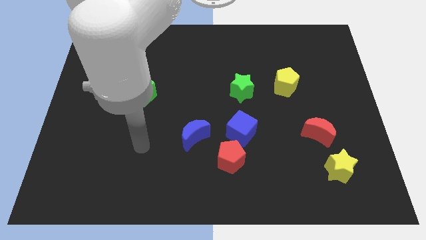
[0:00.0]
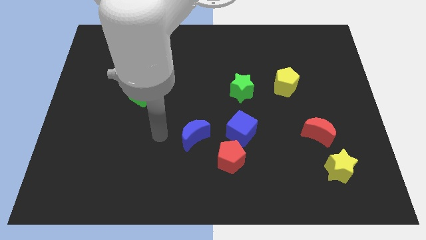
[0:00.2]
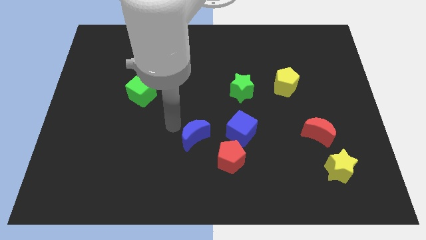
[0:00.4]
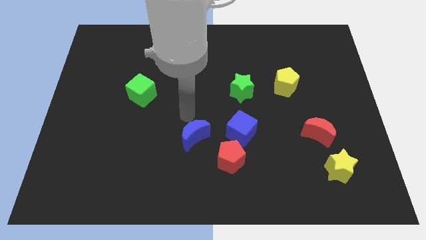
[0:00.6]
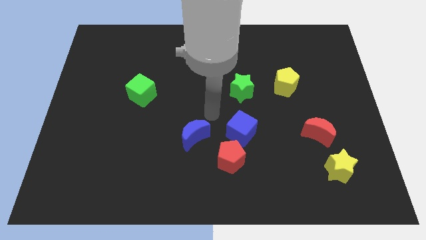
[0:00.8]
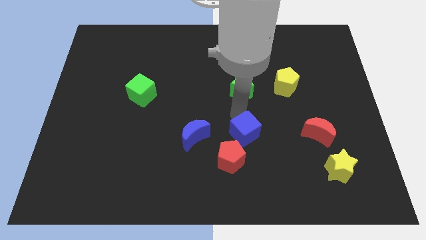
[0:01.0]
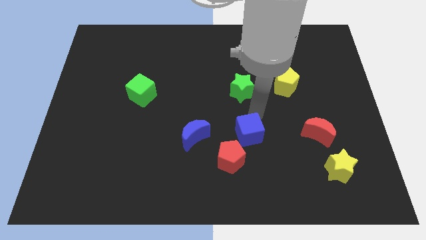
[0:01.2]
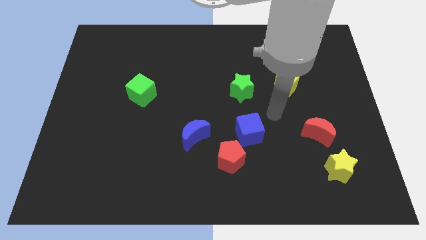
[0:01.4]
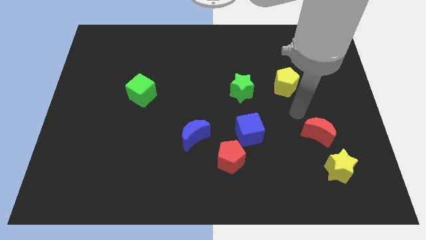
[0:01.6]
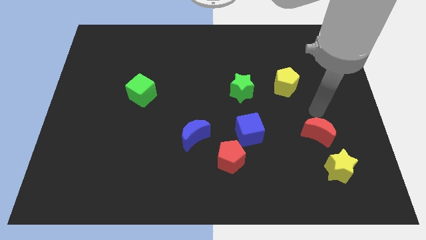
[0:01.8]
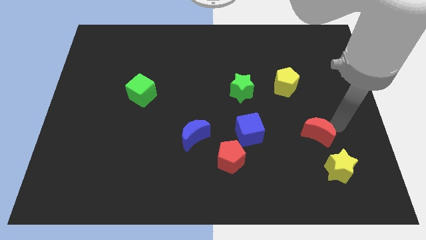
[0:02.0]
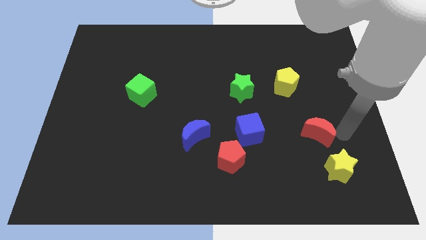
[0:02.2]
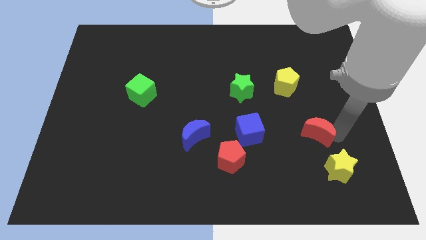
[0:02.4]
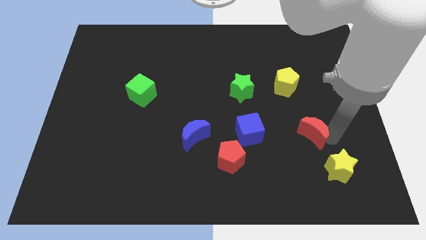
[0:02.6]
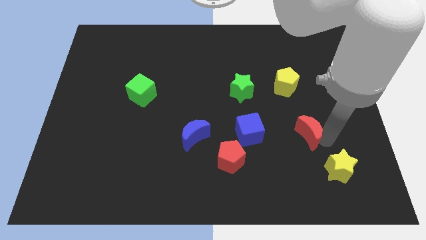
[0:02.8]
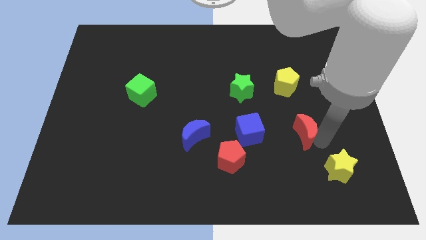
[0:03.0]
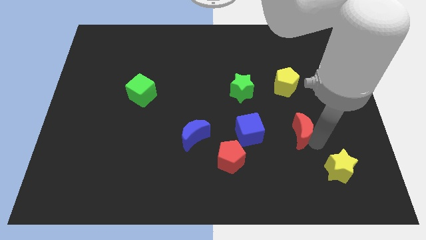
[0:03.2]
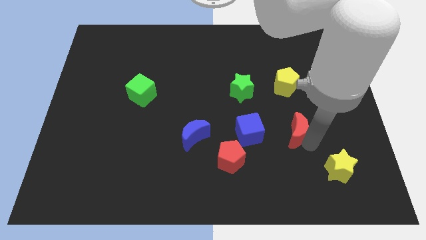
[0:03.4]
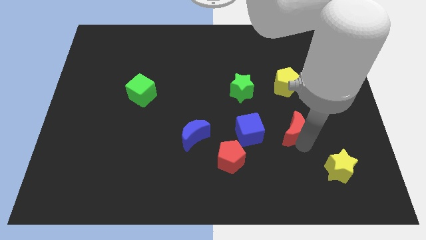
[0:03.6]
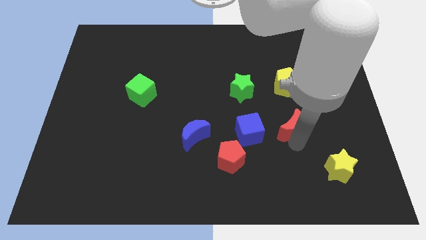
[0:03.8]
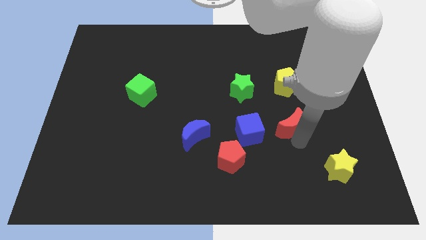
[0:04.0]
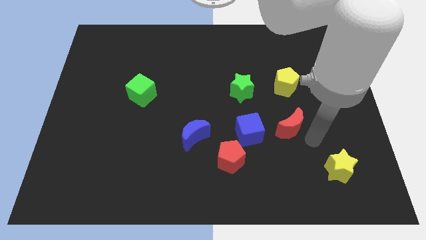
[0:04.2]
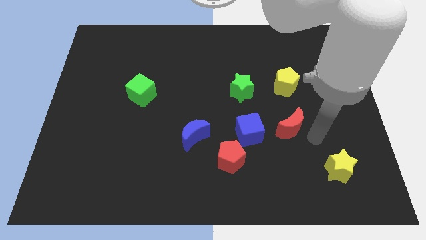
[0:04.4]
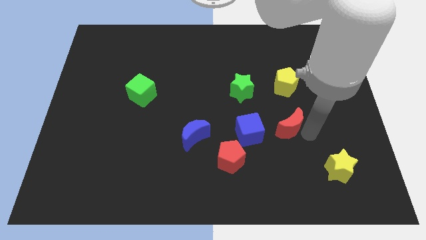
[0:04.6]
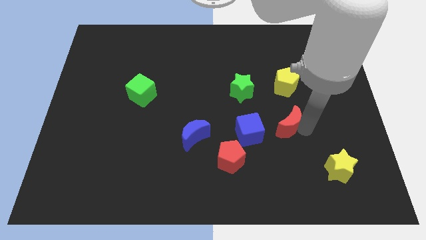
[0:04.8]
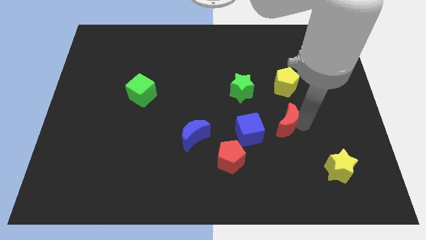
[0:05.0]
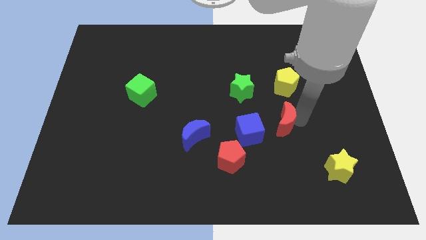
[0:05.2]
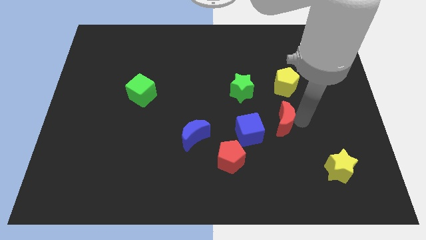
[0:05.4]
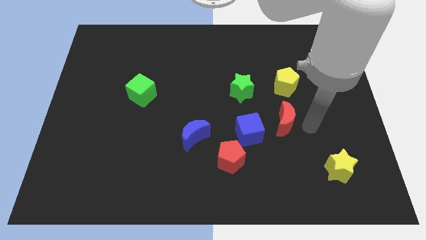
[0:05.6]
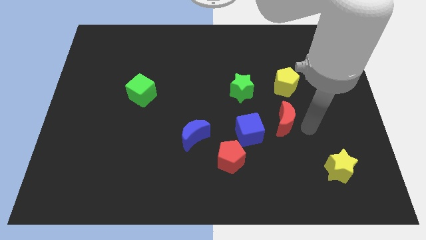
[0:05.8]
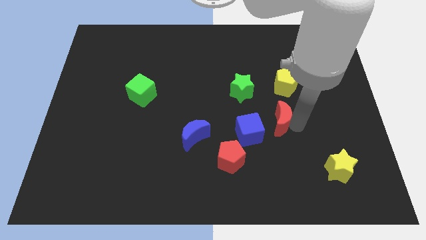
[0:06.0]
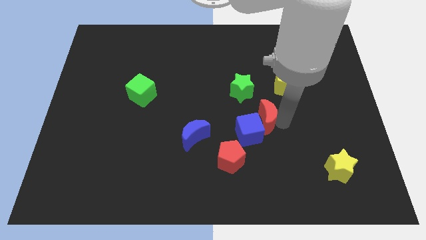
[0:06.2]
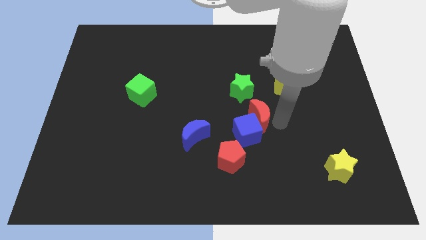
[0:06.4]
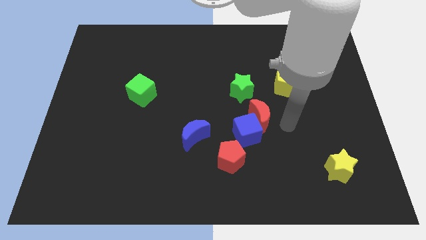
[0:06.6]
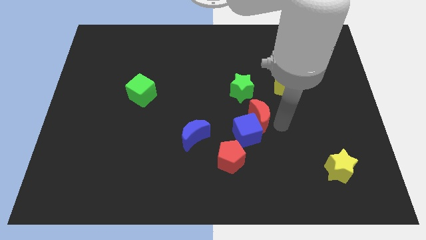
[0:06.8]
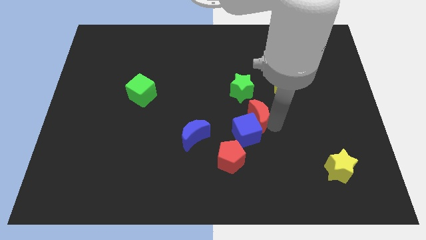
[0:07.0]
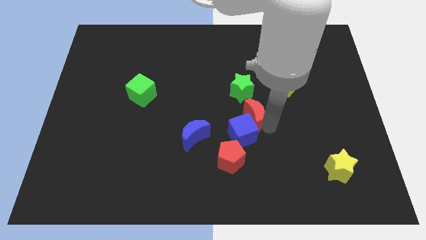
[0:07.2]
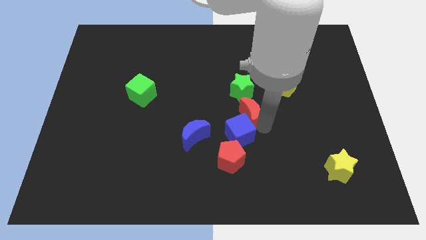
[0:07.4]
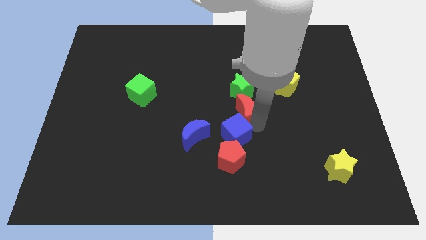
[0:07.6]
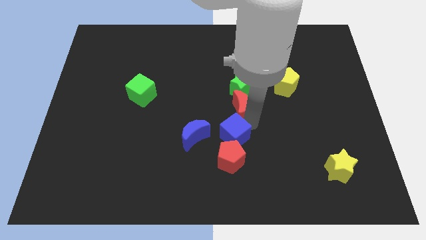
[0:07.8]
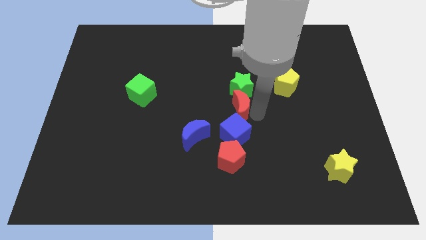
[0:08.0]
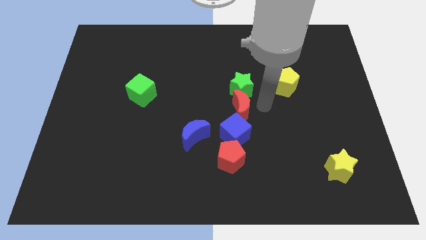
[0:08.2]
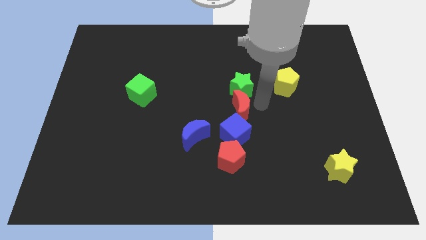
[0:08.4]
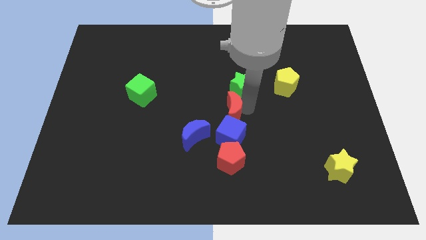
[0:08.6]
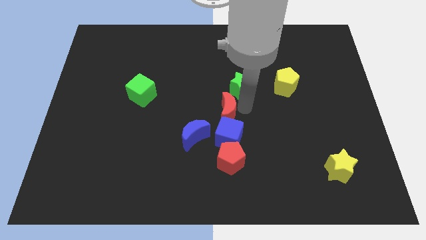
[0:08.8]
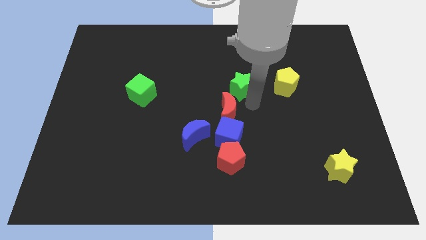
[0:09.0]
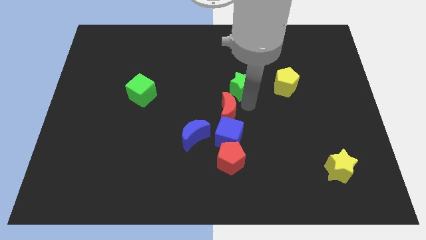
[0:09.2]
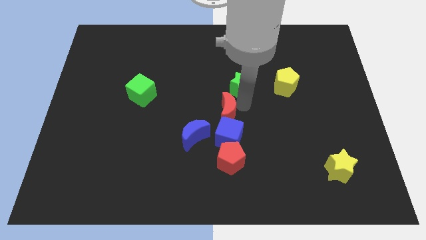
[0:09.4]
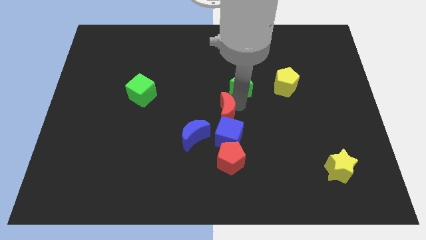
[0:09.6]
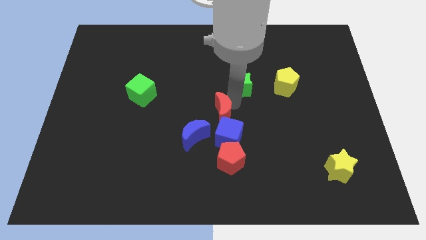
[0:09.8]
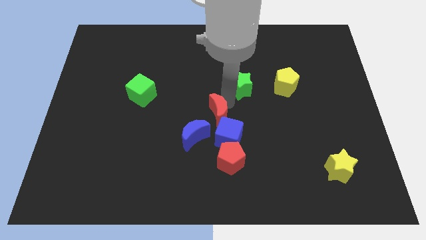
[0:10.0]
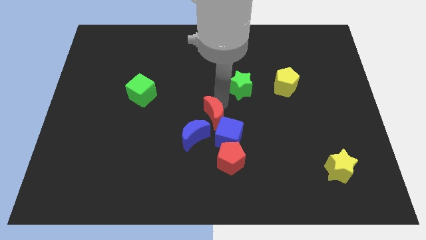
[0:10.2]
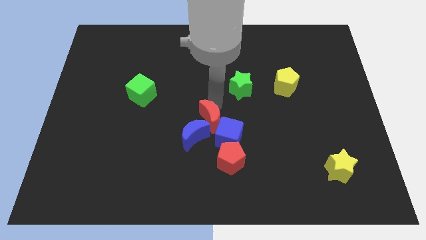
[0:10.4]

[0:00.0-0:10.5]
move the red moon next to the blue moon

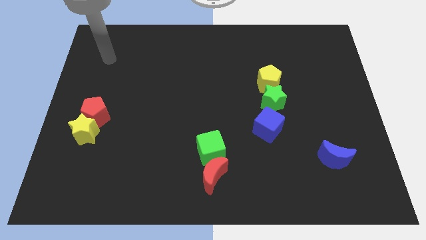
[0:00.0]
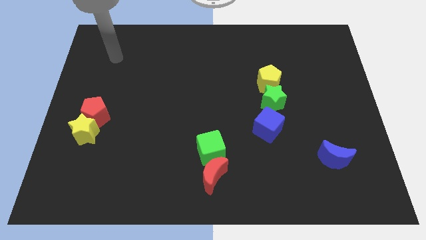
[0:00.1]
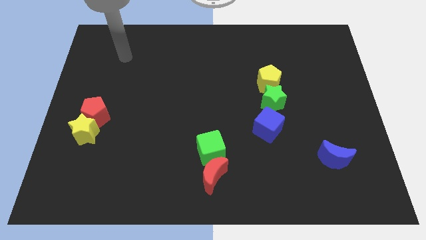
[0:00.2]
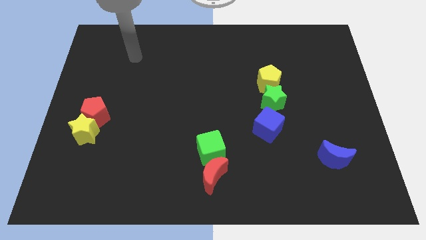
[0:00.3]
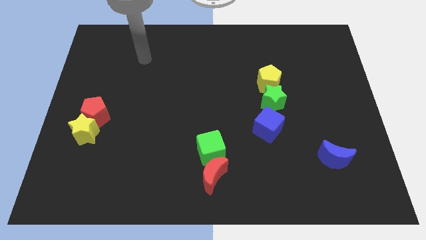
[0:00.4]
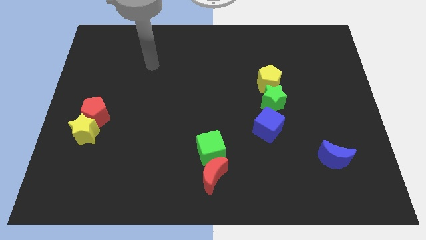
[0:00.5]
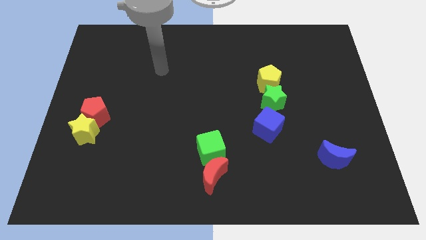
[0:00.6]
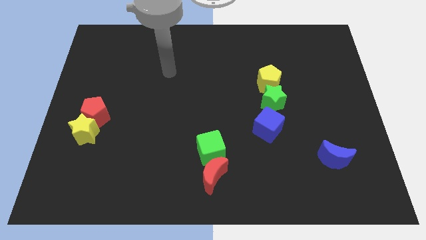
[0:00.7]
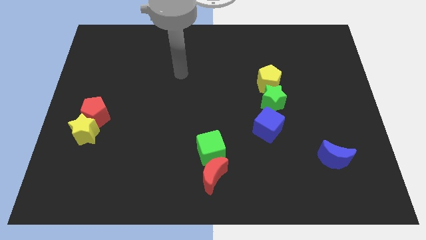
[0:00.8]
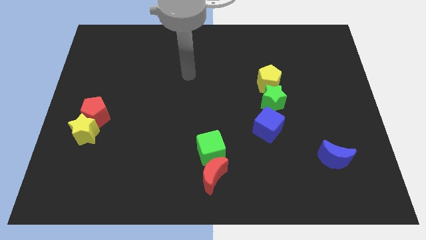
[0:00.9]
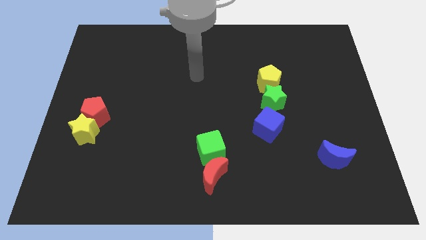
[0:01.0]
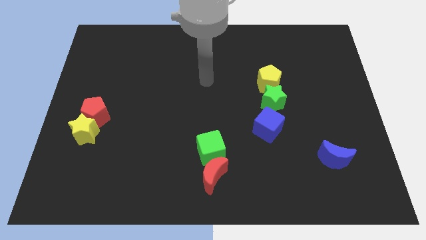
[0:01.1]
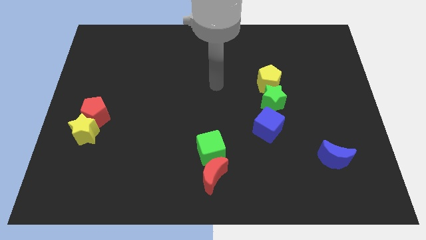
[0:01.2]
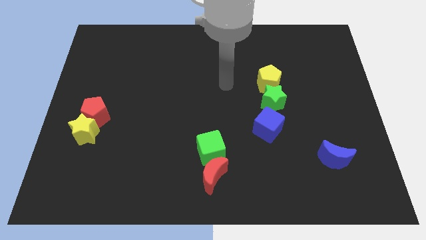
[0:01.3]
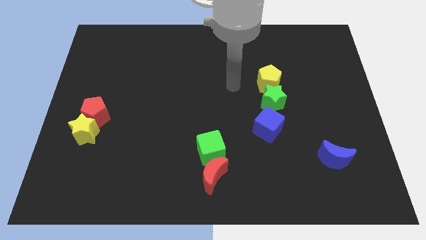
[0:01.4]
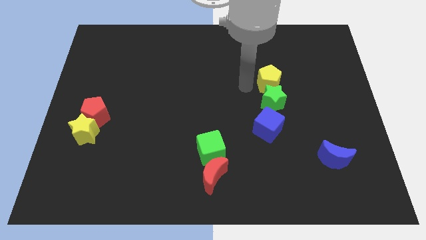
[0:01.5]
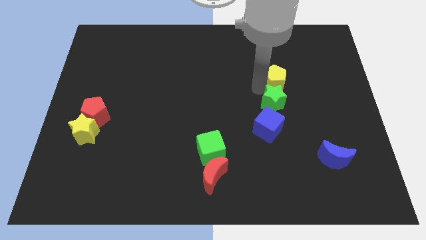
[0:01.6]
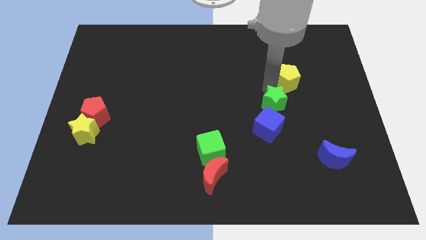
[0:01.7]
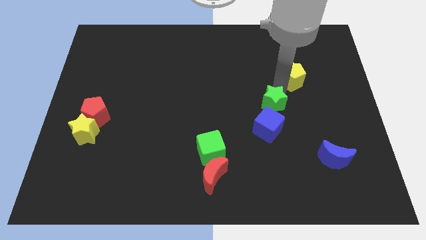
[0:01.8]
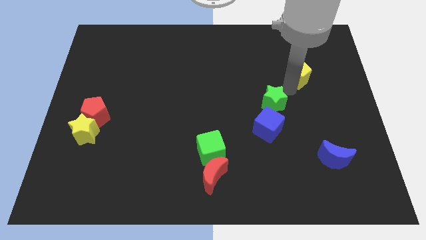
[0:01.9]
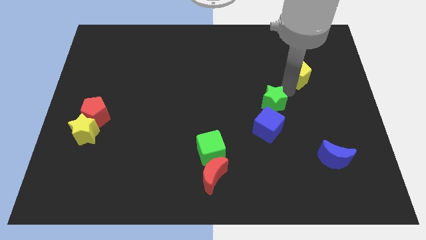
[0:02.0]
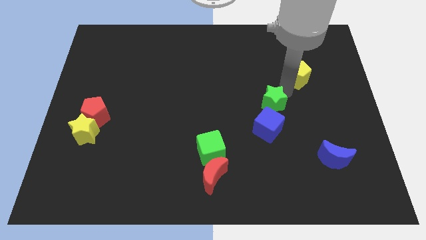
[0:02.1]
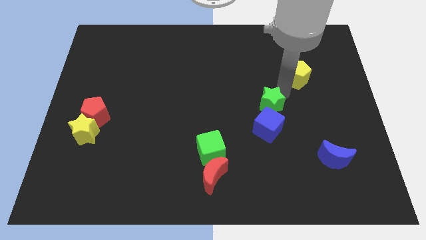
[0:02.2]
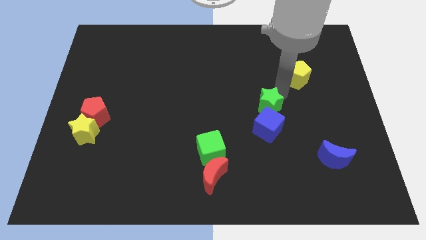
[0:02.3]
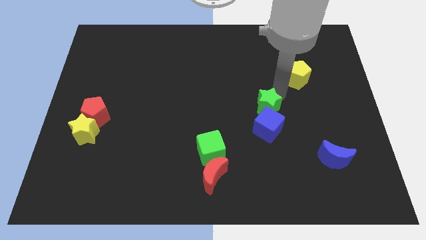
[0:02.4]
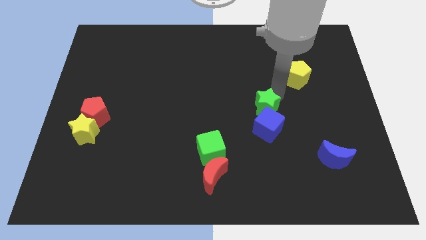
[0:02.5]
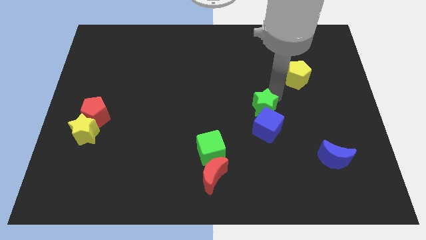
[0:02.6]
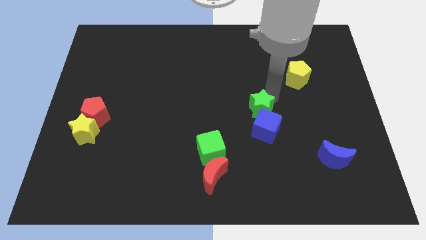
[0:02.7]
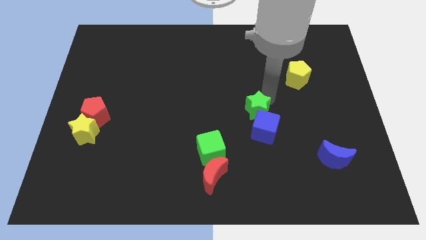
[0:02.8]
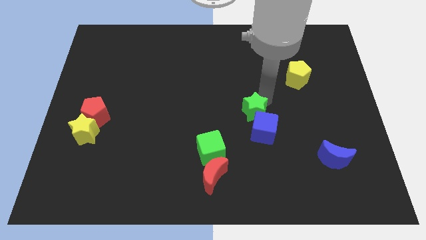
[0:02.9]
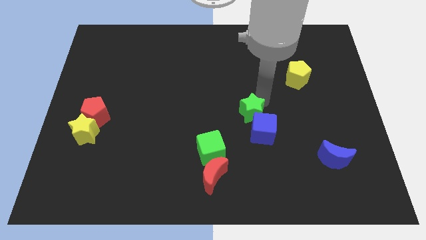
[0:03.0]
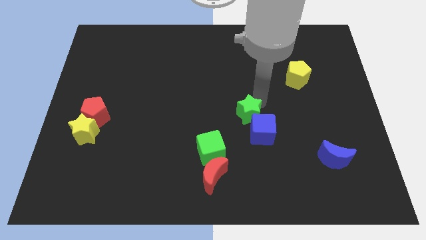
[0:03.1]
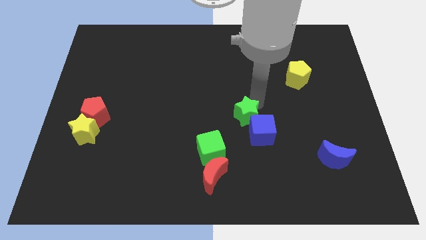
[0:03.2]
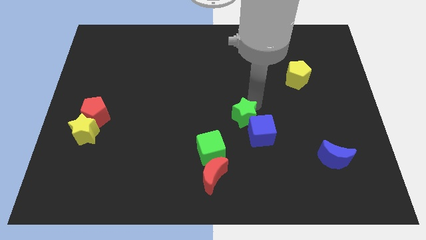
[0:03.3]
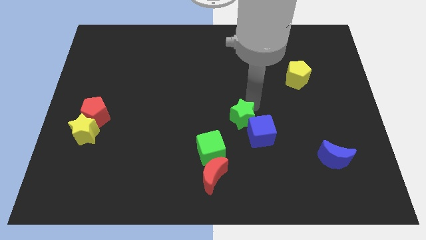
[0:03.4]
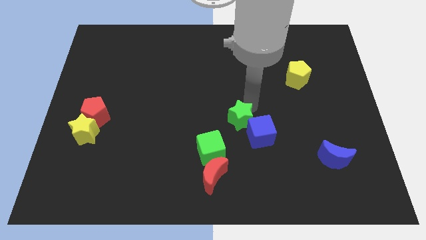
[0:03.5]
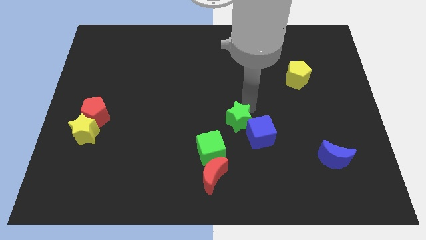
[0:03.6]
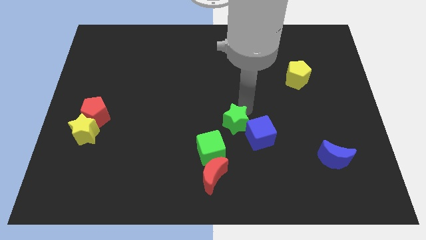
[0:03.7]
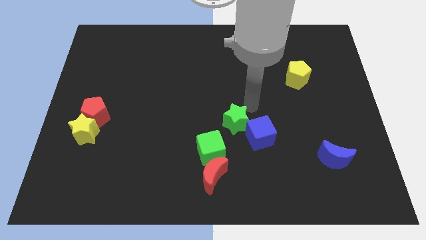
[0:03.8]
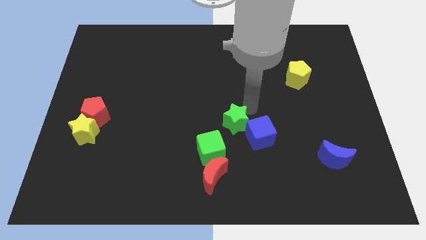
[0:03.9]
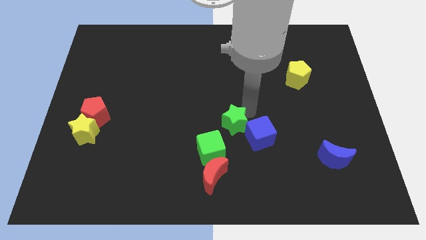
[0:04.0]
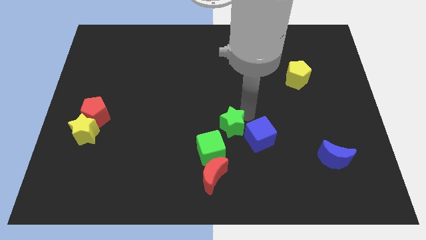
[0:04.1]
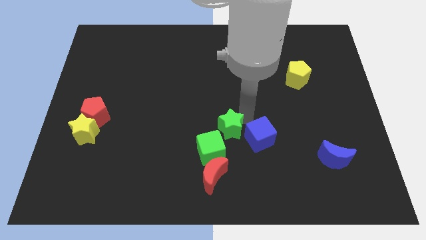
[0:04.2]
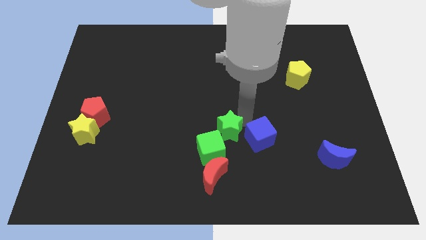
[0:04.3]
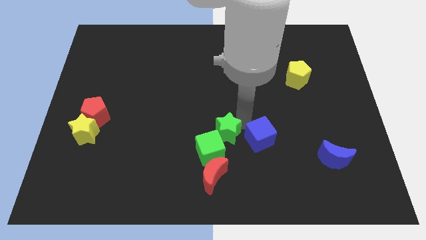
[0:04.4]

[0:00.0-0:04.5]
slide the green star close to the green cube
